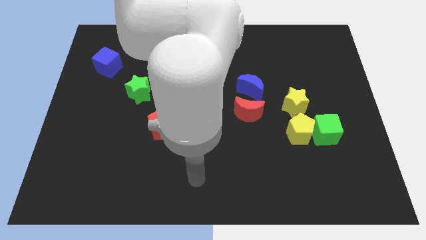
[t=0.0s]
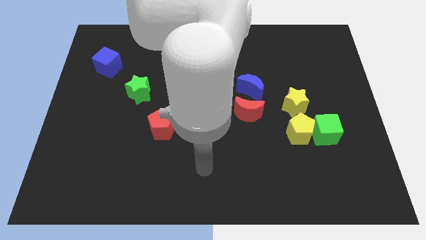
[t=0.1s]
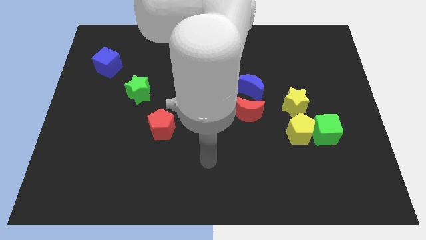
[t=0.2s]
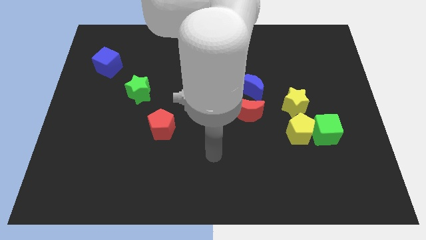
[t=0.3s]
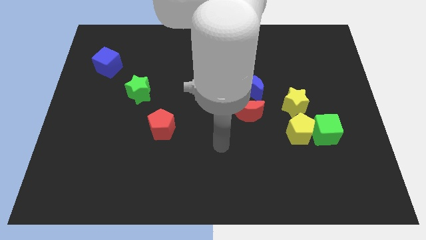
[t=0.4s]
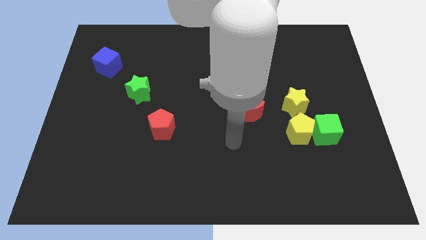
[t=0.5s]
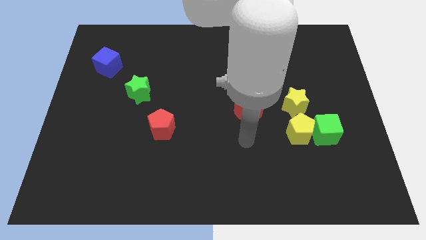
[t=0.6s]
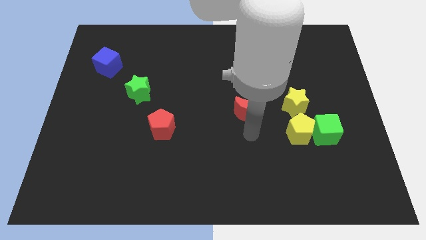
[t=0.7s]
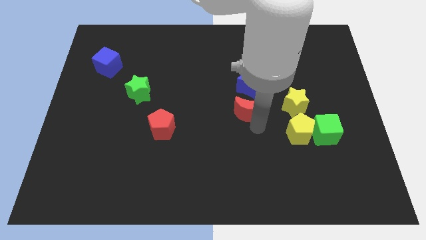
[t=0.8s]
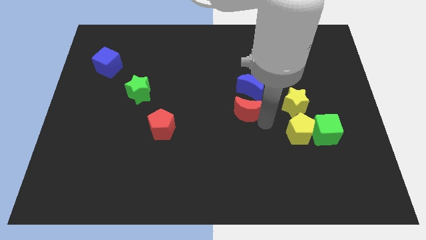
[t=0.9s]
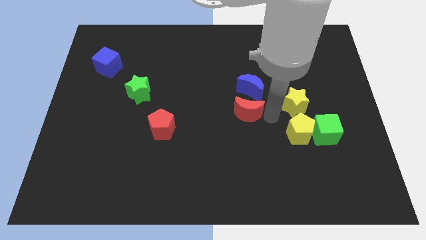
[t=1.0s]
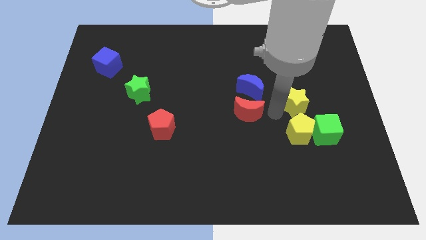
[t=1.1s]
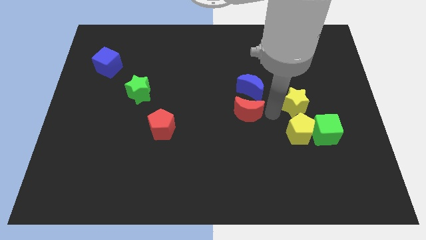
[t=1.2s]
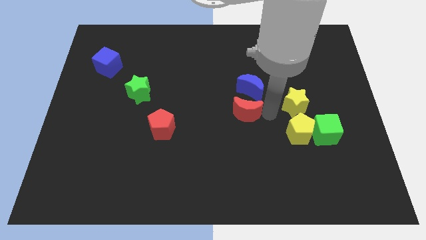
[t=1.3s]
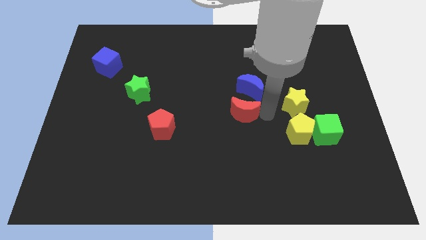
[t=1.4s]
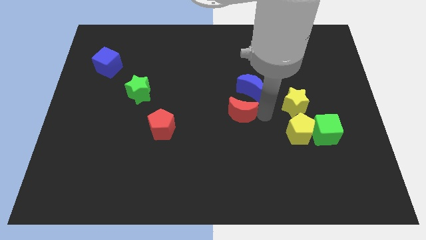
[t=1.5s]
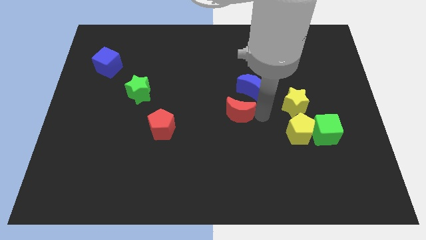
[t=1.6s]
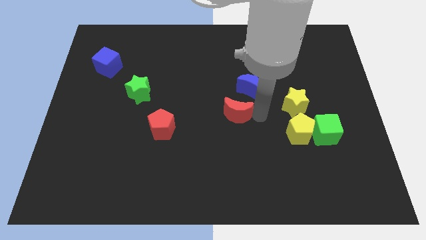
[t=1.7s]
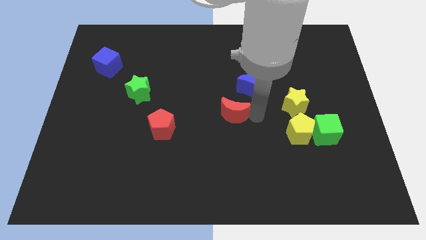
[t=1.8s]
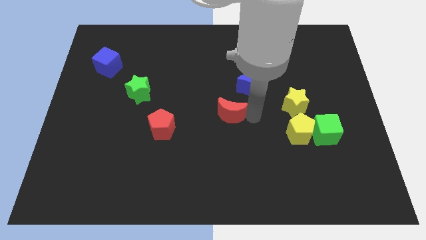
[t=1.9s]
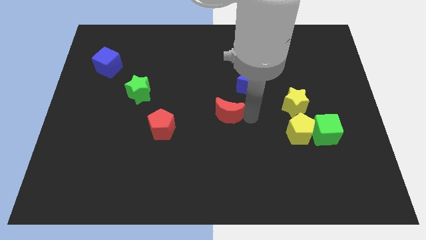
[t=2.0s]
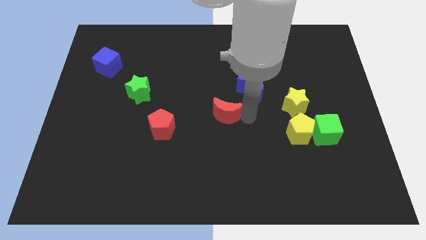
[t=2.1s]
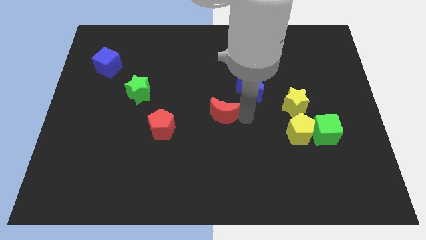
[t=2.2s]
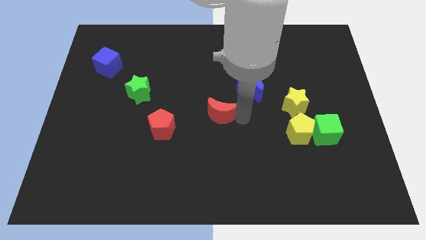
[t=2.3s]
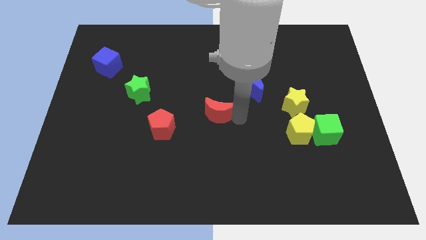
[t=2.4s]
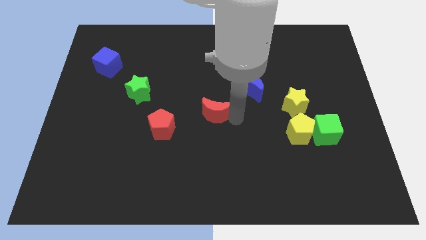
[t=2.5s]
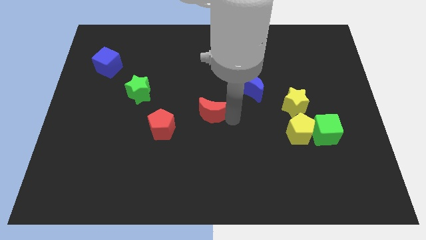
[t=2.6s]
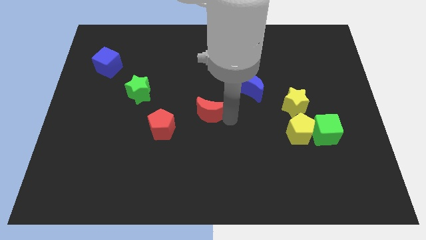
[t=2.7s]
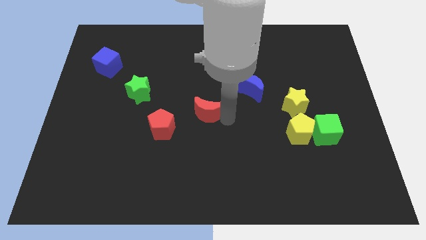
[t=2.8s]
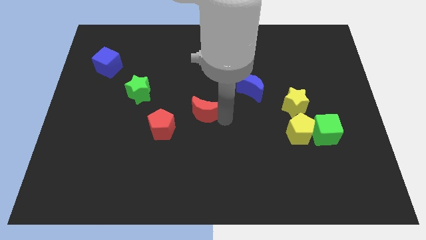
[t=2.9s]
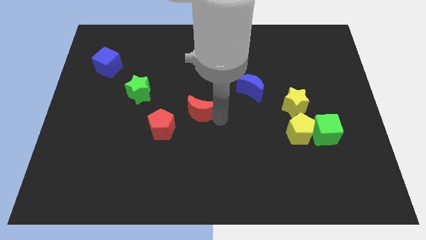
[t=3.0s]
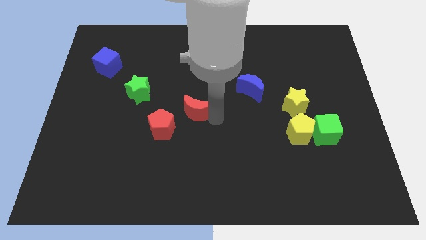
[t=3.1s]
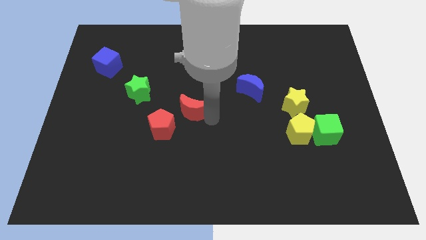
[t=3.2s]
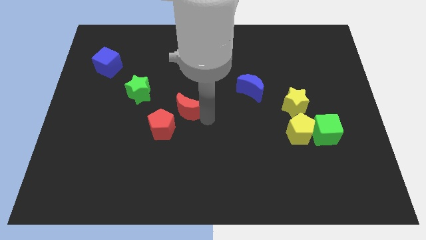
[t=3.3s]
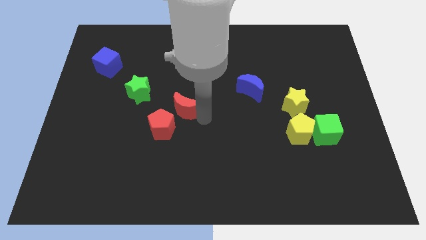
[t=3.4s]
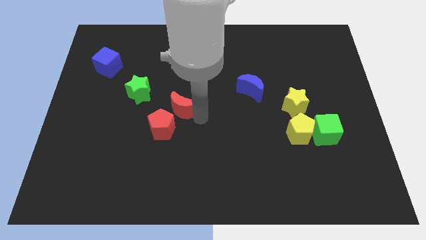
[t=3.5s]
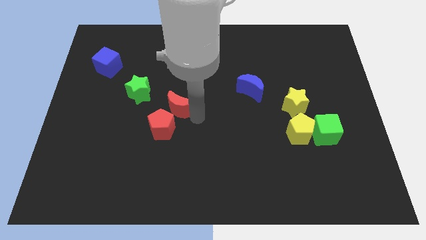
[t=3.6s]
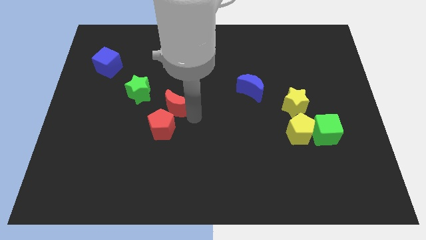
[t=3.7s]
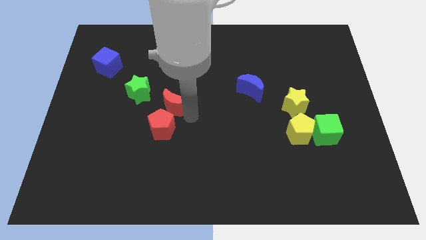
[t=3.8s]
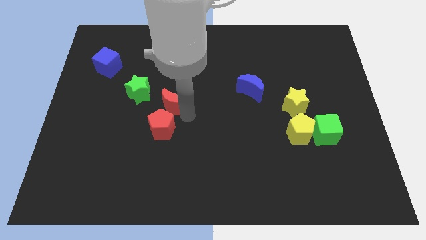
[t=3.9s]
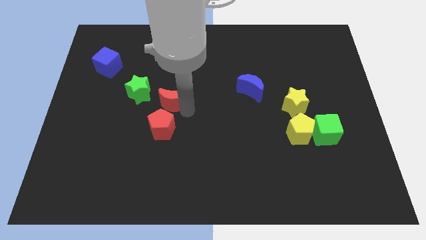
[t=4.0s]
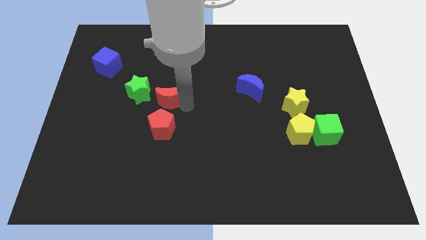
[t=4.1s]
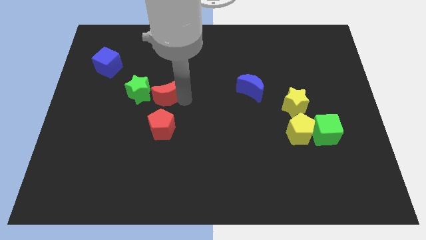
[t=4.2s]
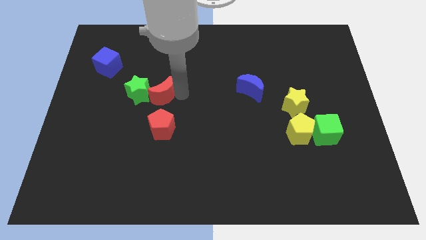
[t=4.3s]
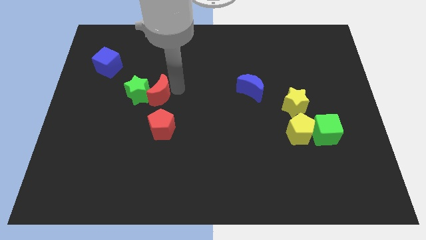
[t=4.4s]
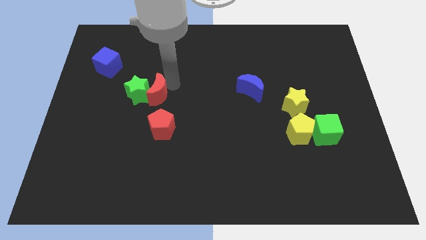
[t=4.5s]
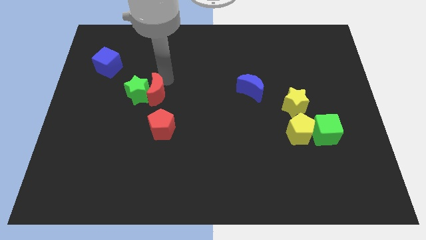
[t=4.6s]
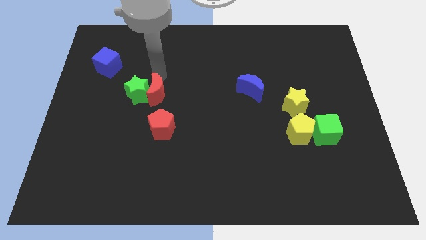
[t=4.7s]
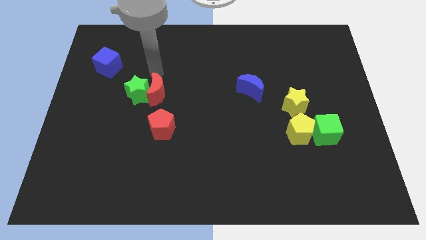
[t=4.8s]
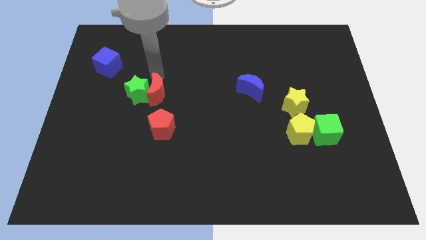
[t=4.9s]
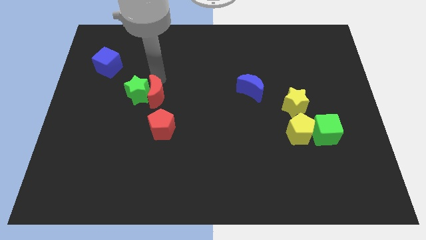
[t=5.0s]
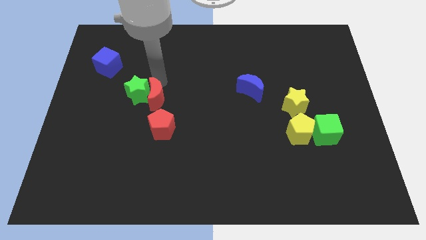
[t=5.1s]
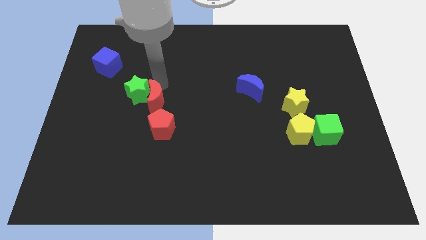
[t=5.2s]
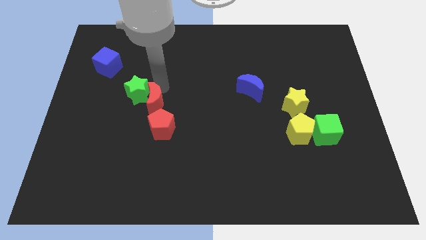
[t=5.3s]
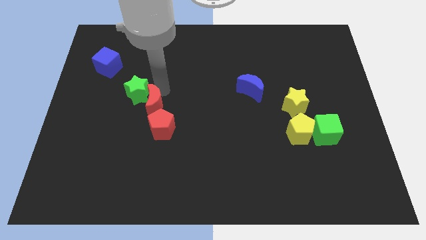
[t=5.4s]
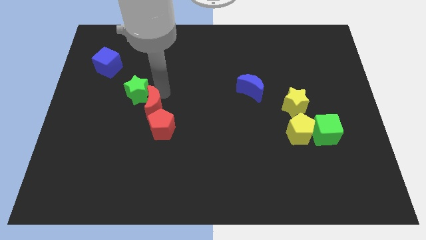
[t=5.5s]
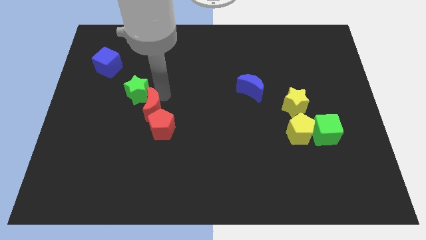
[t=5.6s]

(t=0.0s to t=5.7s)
slide the red moon next to the red pentagon

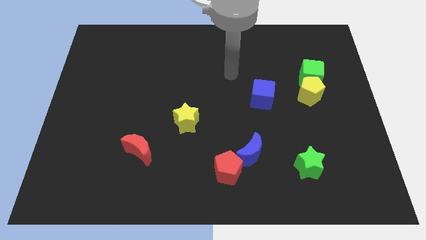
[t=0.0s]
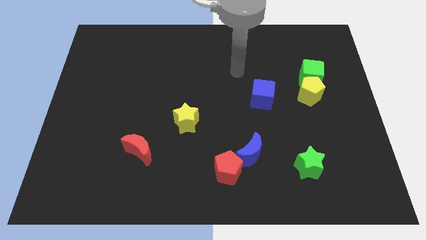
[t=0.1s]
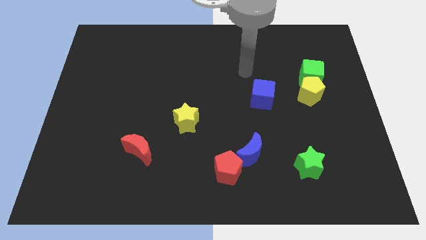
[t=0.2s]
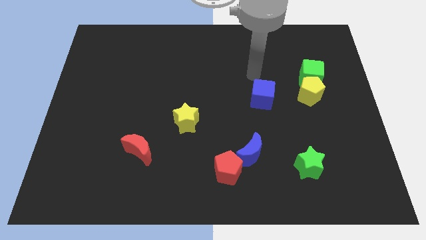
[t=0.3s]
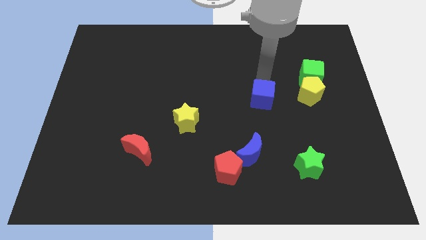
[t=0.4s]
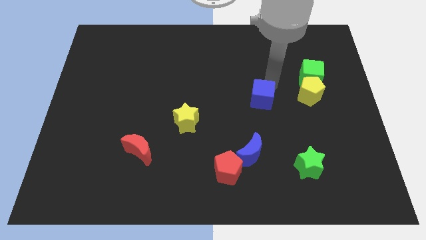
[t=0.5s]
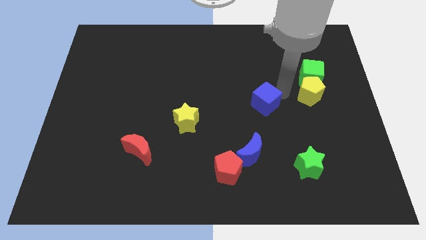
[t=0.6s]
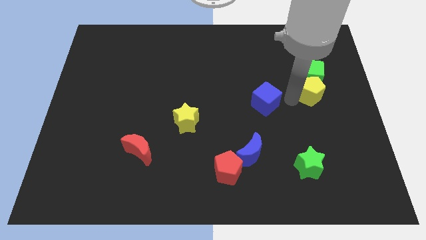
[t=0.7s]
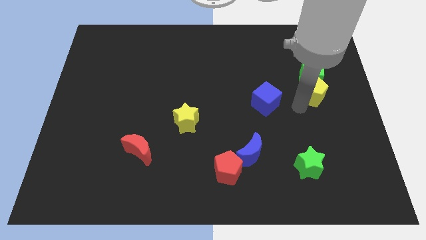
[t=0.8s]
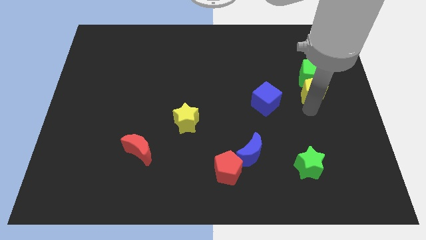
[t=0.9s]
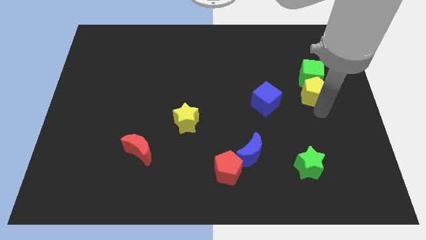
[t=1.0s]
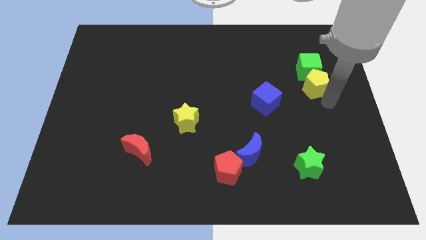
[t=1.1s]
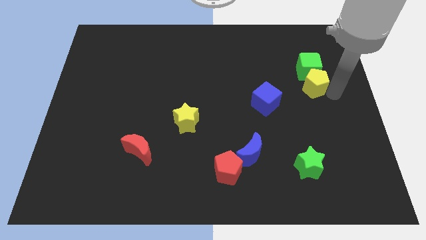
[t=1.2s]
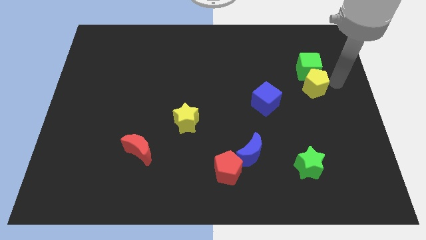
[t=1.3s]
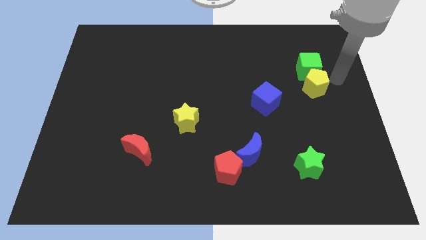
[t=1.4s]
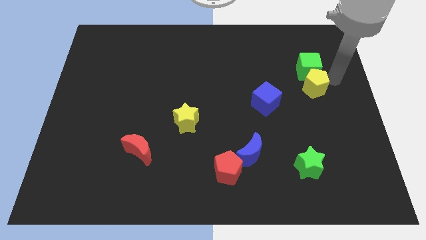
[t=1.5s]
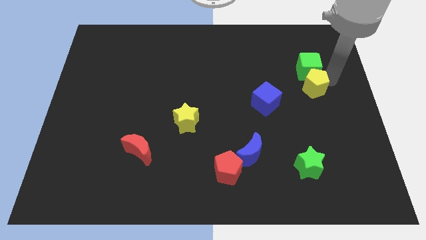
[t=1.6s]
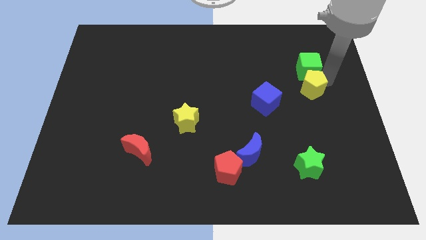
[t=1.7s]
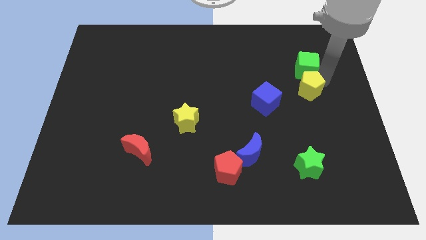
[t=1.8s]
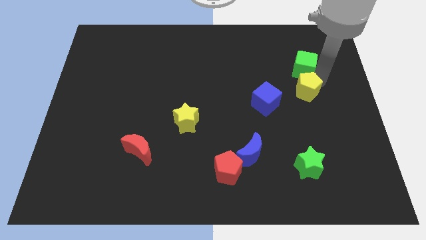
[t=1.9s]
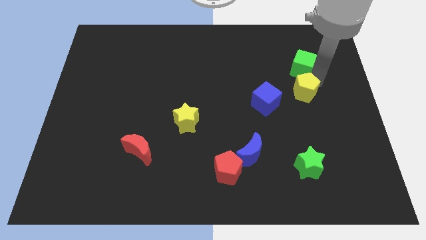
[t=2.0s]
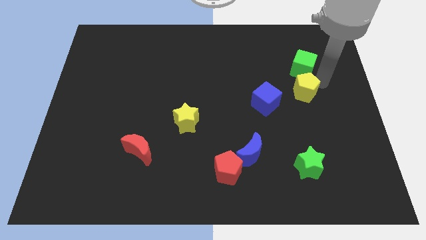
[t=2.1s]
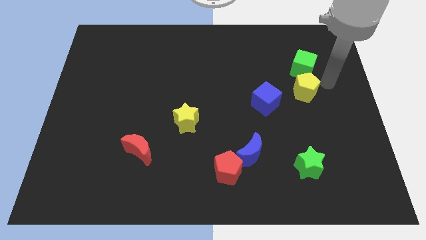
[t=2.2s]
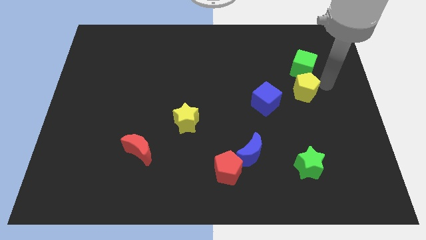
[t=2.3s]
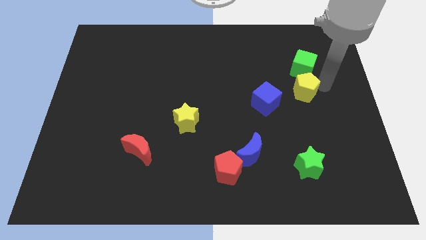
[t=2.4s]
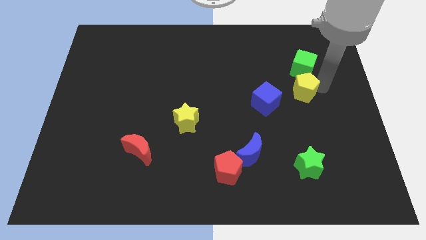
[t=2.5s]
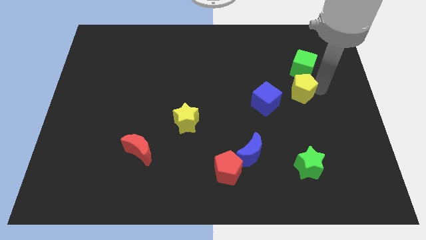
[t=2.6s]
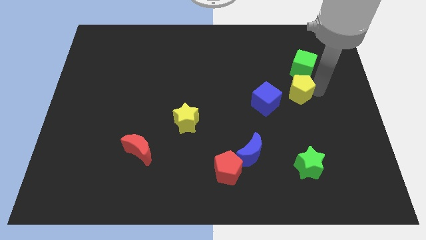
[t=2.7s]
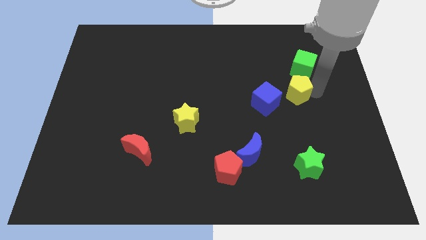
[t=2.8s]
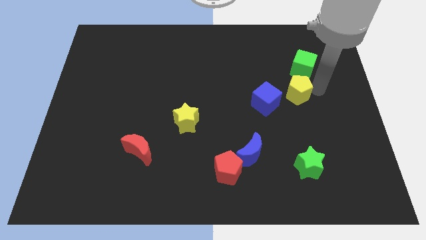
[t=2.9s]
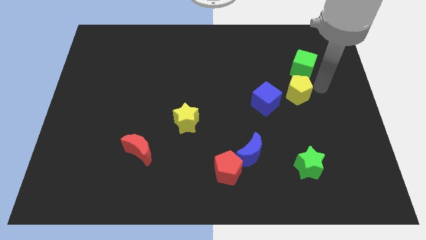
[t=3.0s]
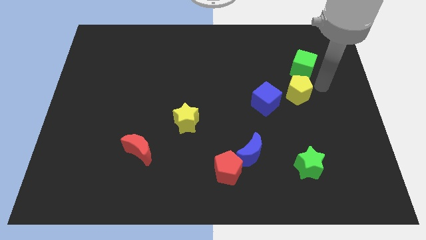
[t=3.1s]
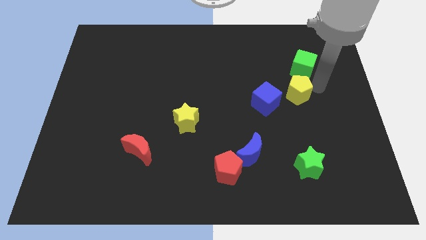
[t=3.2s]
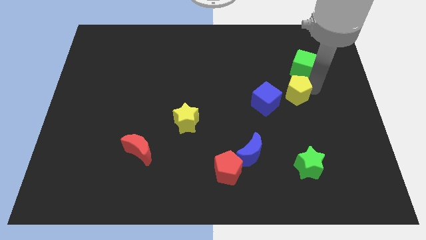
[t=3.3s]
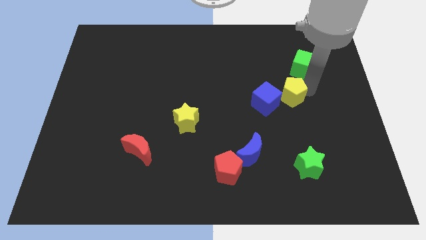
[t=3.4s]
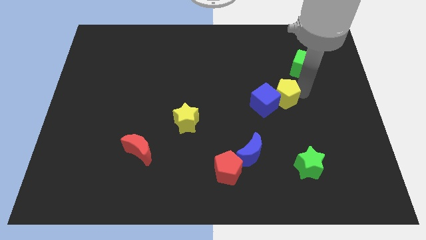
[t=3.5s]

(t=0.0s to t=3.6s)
put the yellow pentagon close to the blue cube
